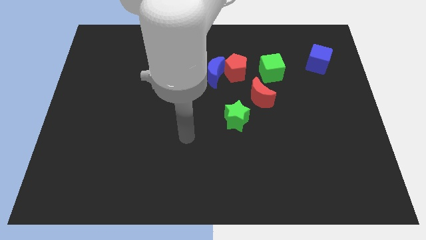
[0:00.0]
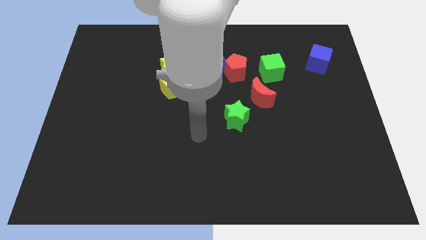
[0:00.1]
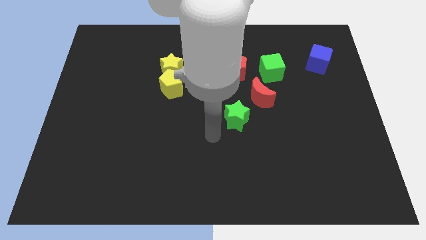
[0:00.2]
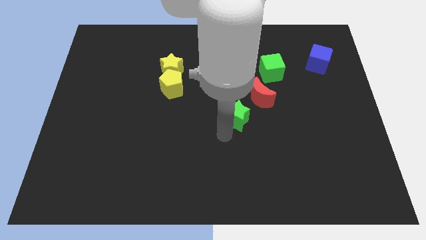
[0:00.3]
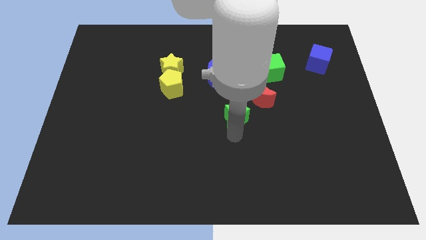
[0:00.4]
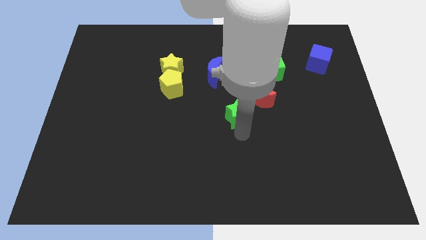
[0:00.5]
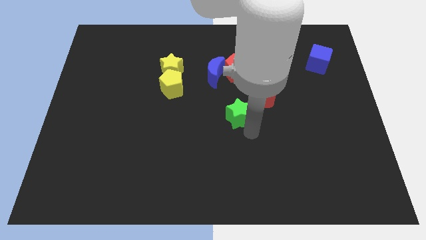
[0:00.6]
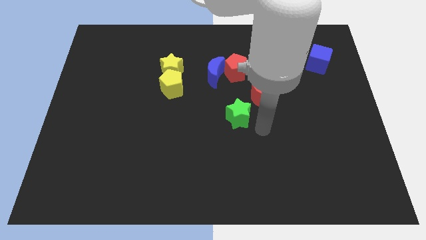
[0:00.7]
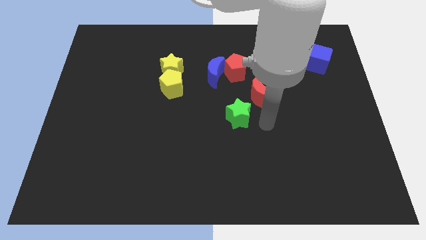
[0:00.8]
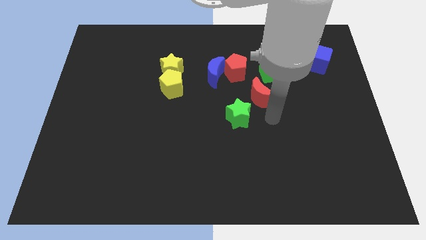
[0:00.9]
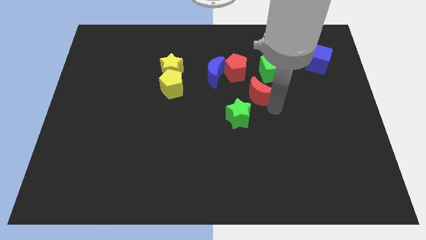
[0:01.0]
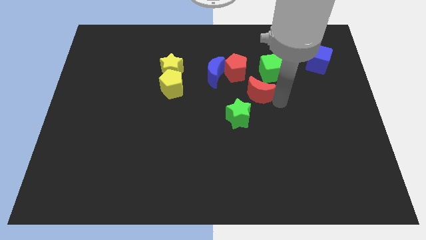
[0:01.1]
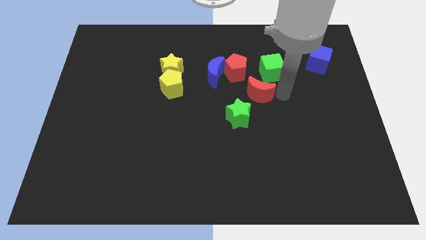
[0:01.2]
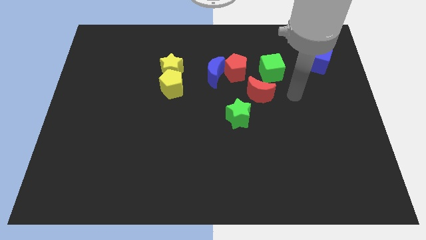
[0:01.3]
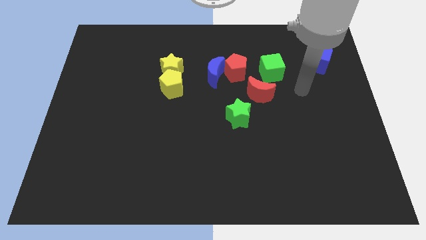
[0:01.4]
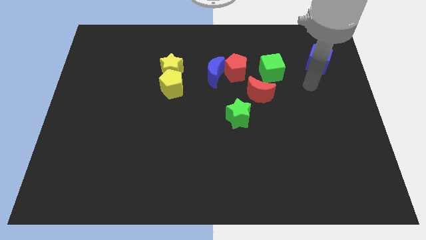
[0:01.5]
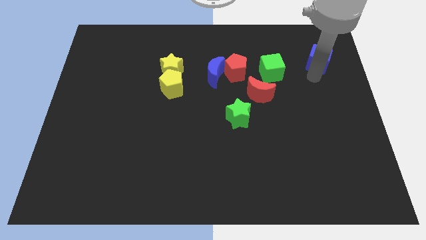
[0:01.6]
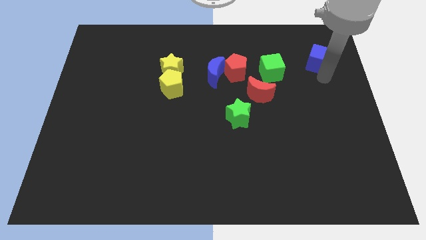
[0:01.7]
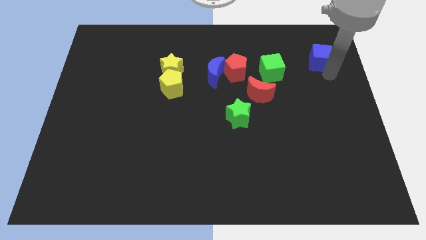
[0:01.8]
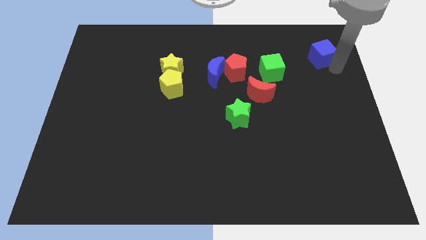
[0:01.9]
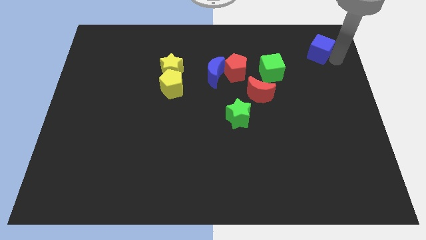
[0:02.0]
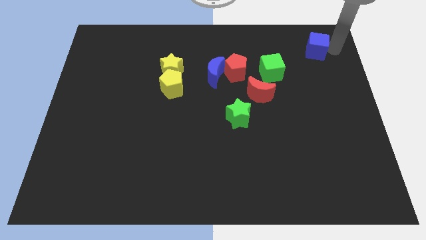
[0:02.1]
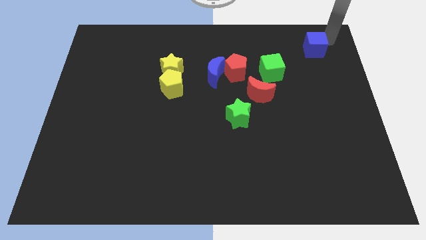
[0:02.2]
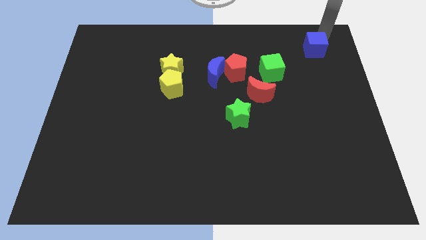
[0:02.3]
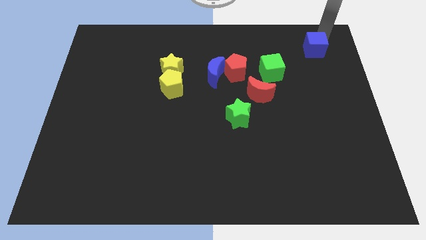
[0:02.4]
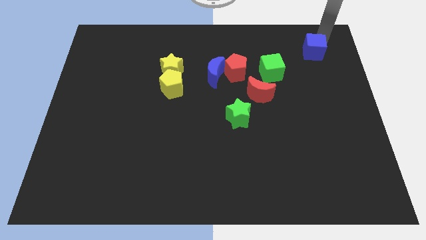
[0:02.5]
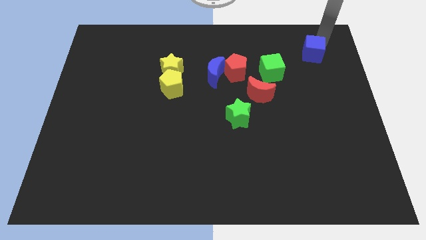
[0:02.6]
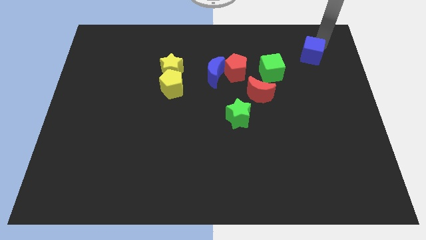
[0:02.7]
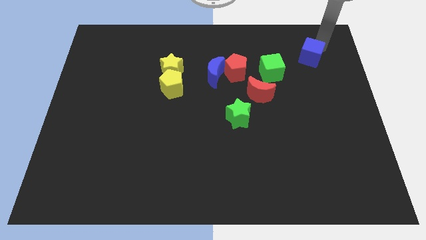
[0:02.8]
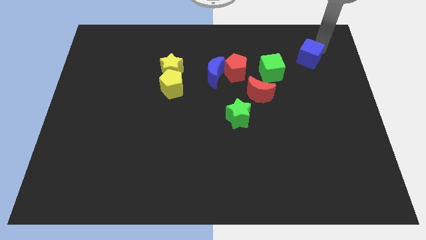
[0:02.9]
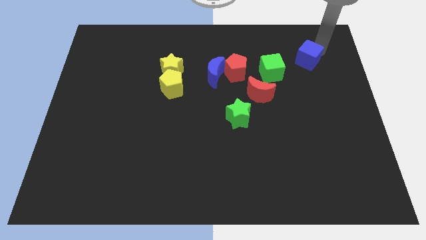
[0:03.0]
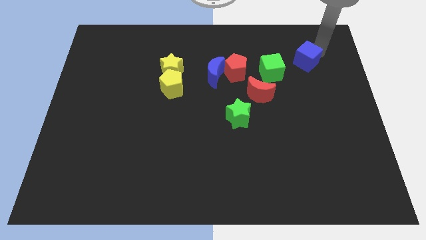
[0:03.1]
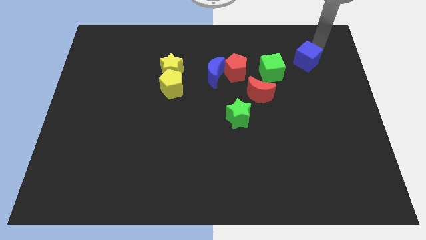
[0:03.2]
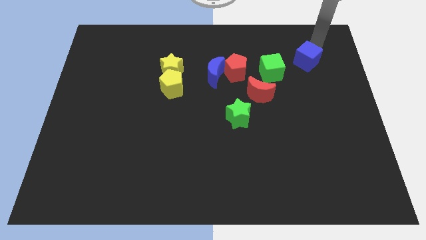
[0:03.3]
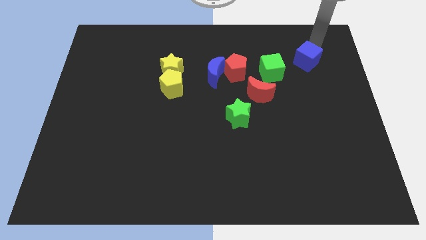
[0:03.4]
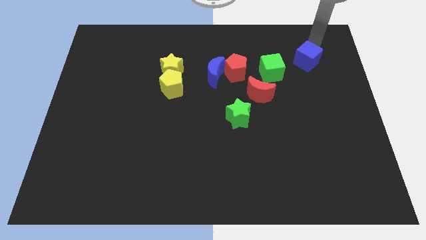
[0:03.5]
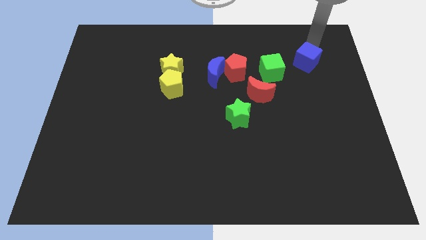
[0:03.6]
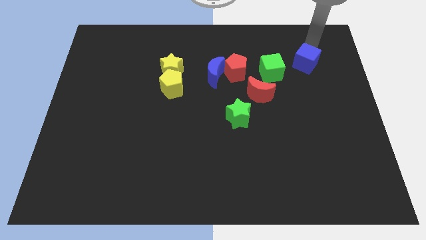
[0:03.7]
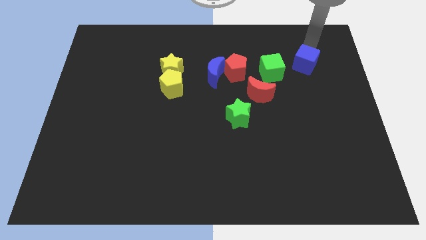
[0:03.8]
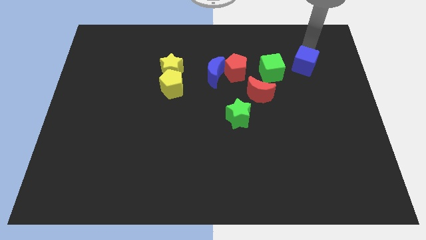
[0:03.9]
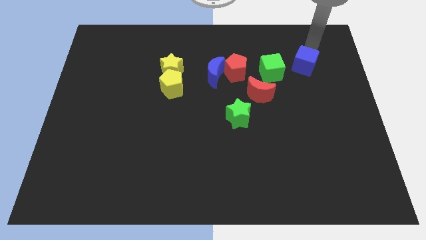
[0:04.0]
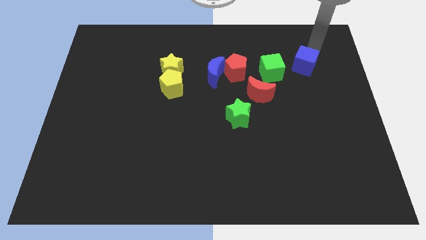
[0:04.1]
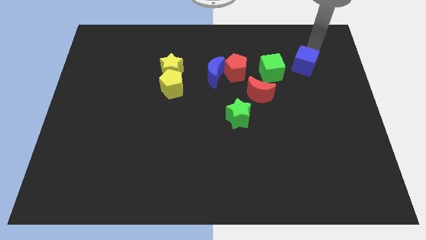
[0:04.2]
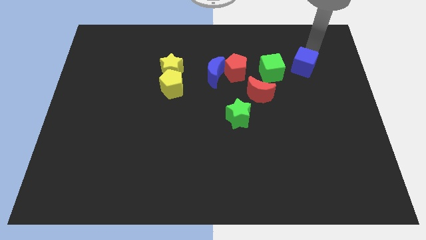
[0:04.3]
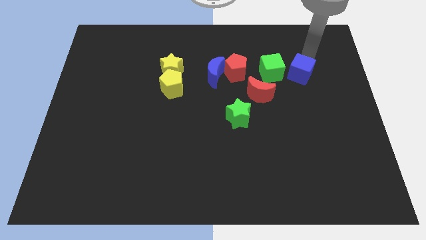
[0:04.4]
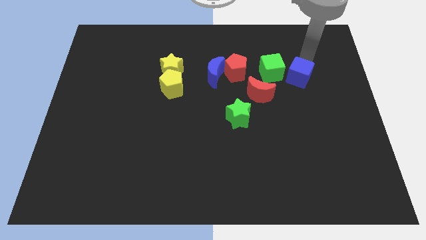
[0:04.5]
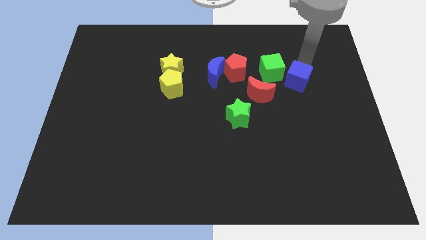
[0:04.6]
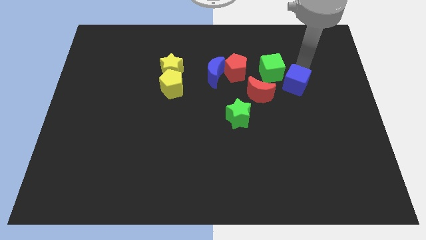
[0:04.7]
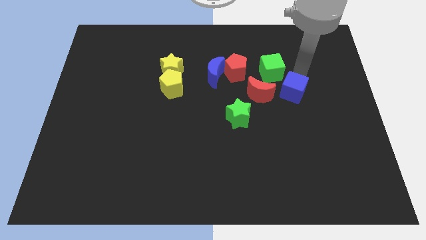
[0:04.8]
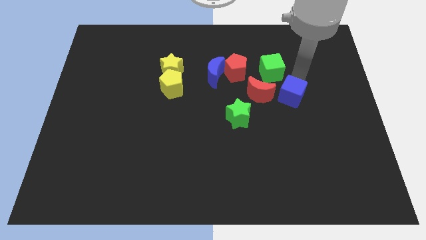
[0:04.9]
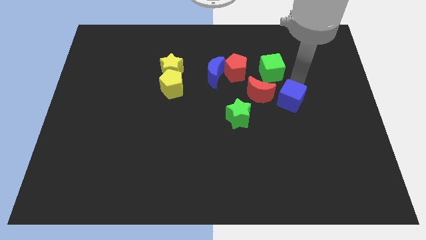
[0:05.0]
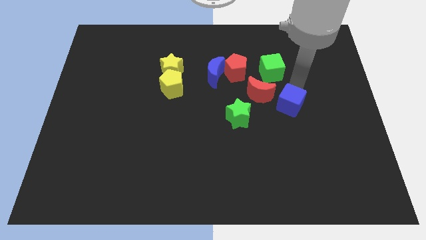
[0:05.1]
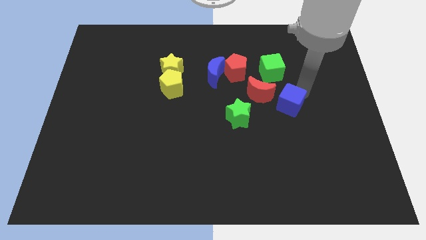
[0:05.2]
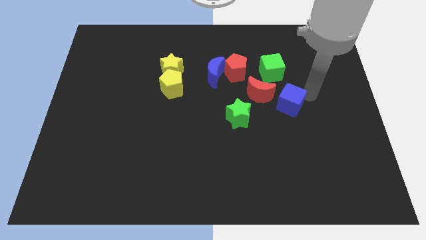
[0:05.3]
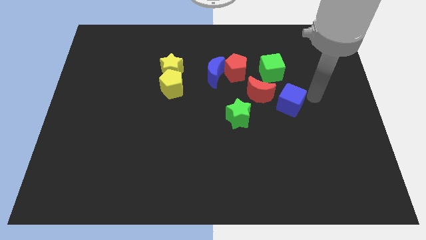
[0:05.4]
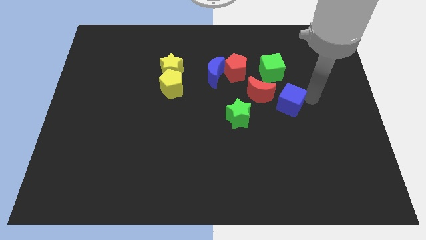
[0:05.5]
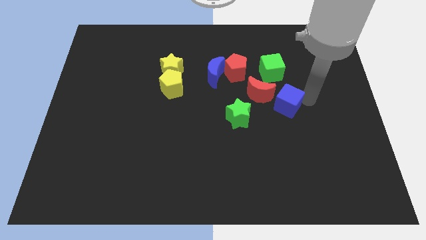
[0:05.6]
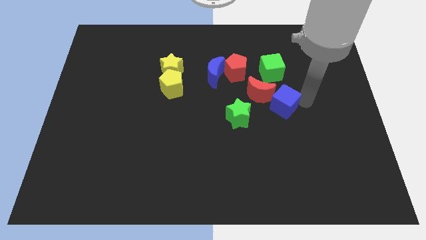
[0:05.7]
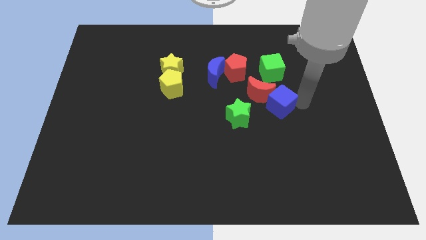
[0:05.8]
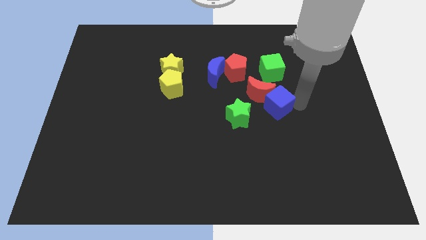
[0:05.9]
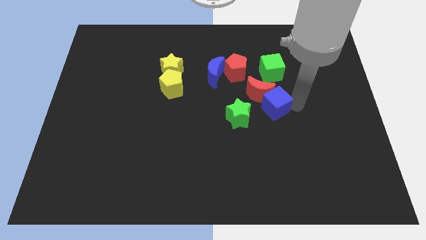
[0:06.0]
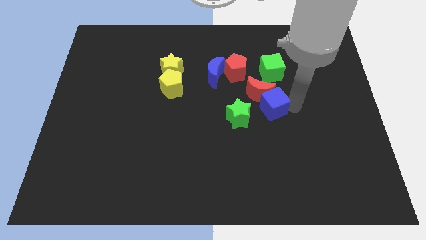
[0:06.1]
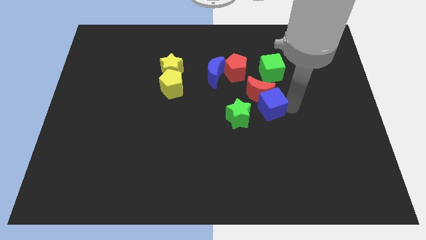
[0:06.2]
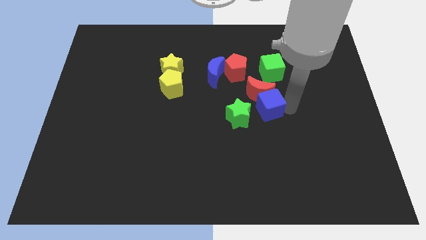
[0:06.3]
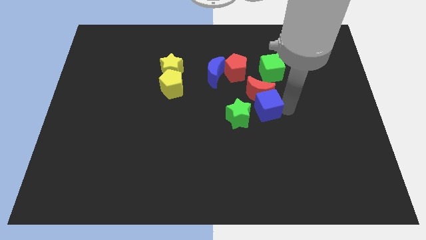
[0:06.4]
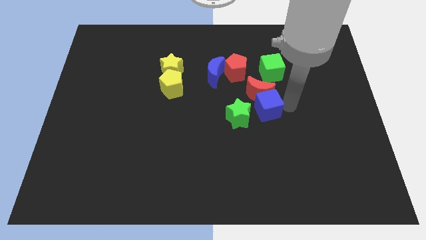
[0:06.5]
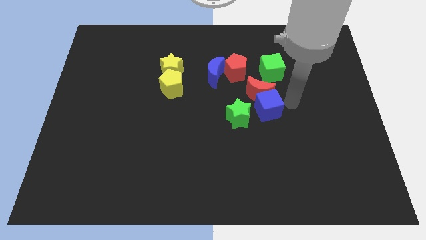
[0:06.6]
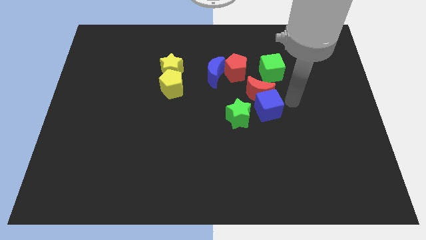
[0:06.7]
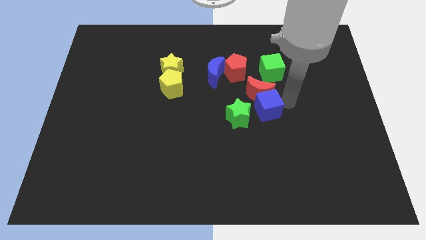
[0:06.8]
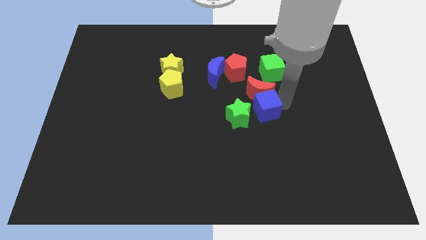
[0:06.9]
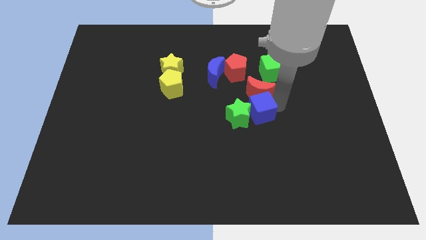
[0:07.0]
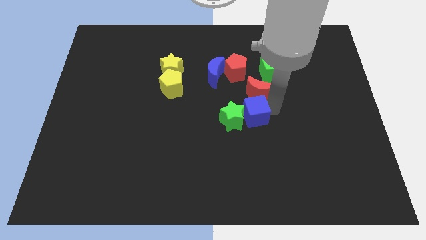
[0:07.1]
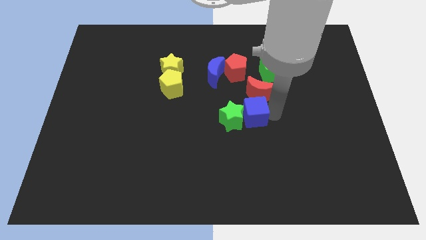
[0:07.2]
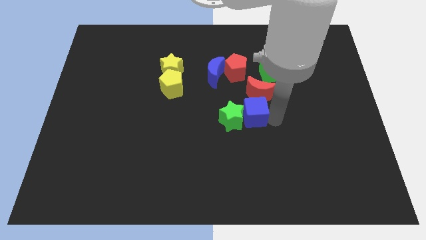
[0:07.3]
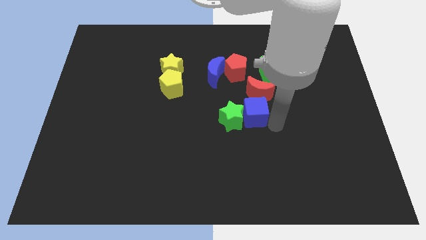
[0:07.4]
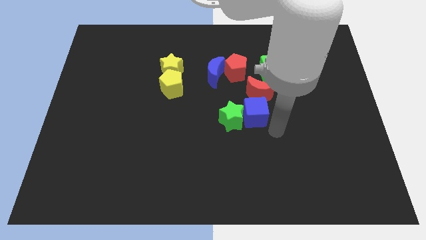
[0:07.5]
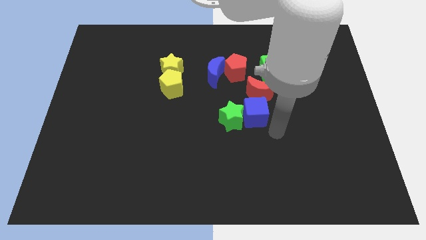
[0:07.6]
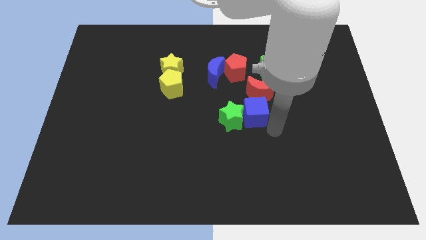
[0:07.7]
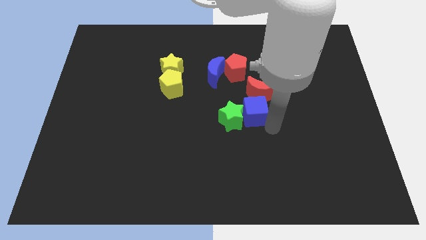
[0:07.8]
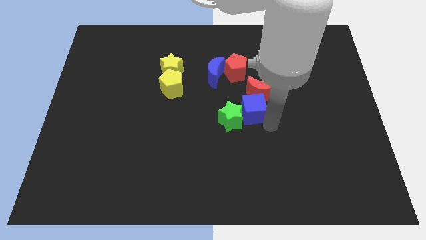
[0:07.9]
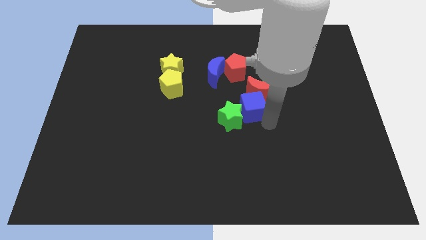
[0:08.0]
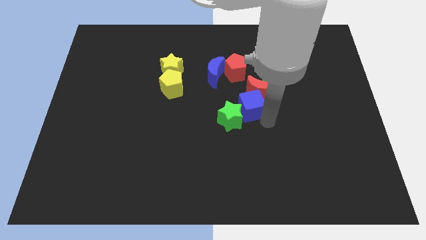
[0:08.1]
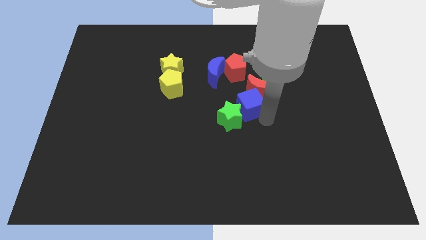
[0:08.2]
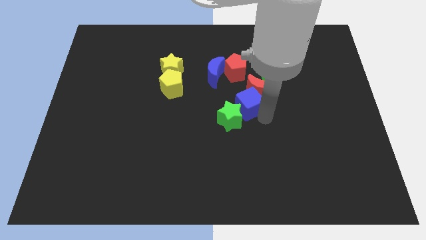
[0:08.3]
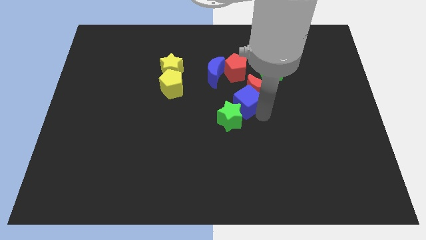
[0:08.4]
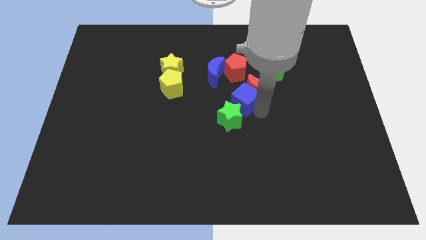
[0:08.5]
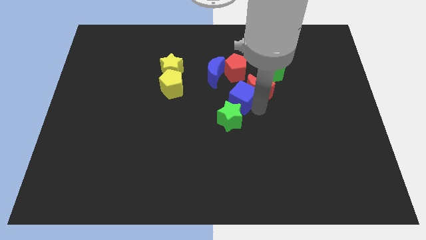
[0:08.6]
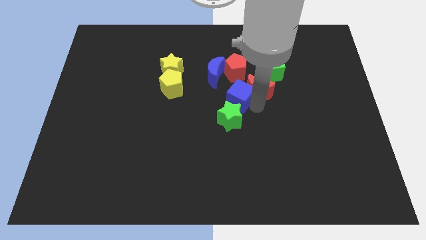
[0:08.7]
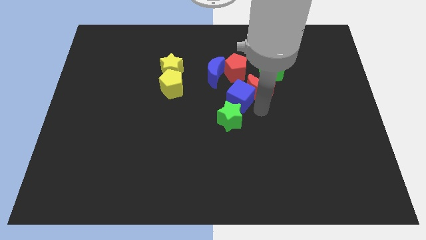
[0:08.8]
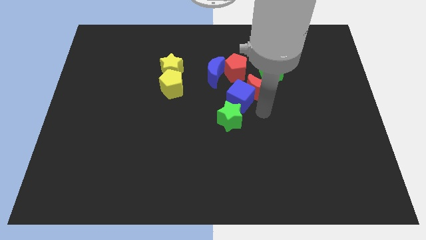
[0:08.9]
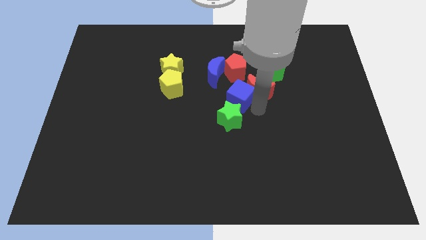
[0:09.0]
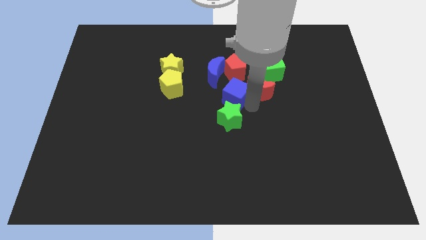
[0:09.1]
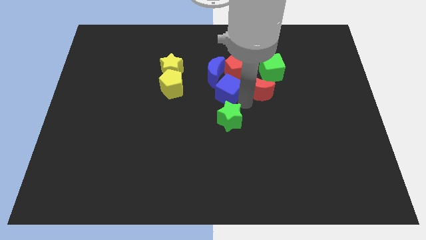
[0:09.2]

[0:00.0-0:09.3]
push the blue cube to the bottom left of the red pentagon
